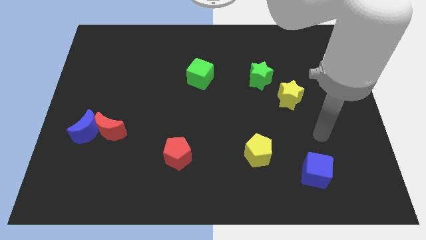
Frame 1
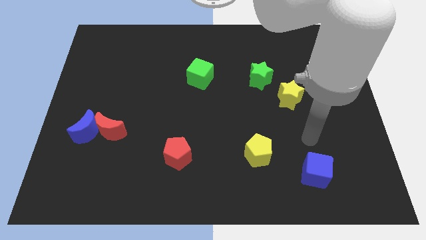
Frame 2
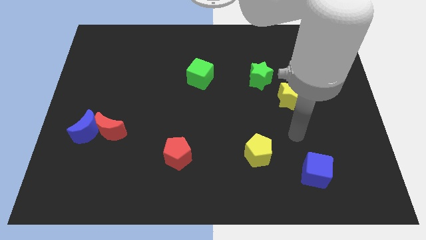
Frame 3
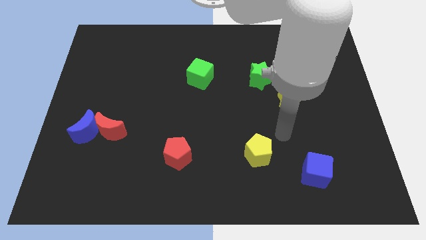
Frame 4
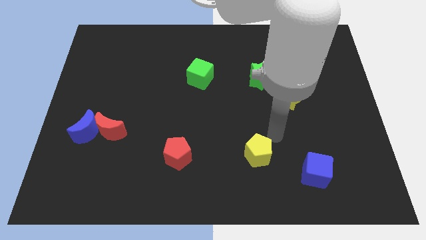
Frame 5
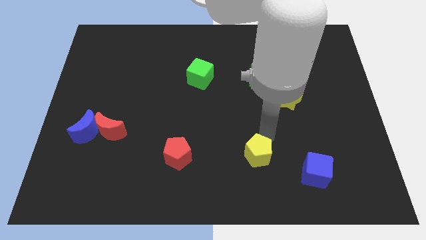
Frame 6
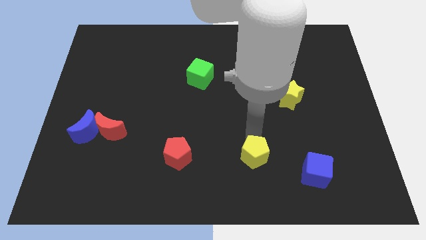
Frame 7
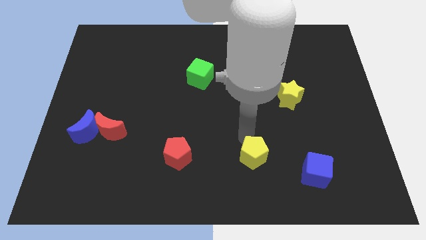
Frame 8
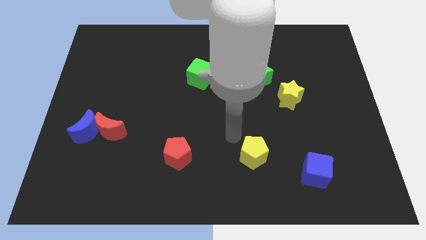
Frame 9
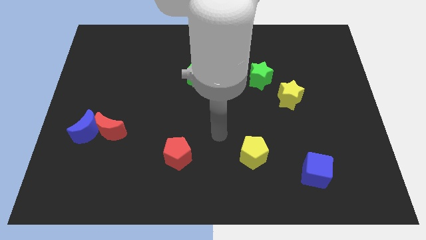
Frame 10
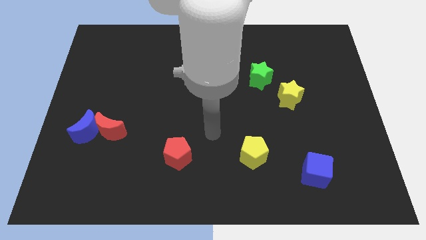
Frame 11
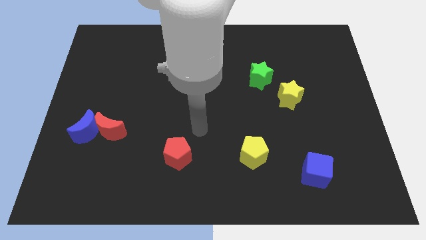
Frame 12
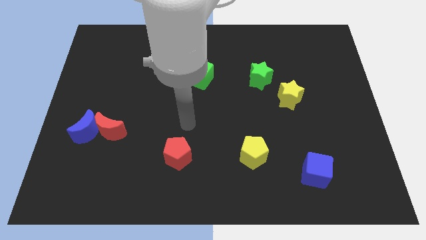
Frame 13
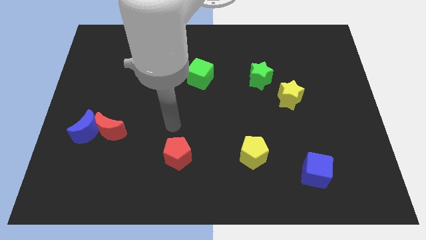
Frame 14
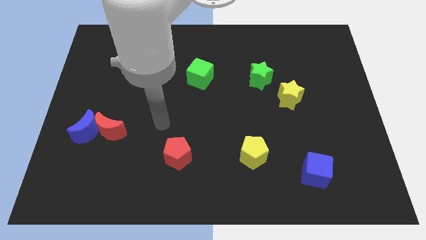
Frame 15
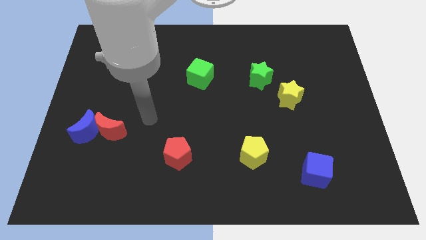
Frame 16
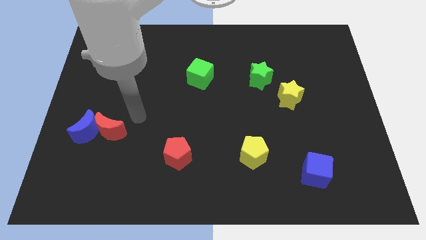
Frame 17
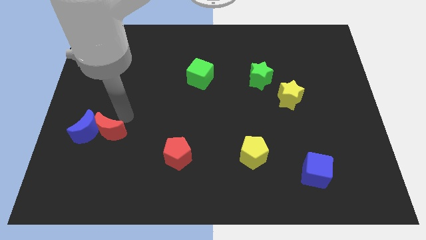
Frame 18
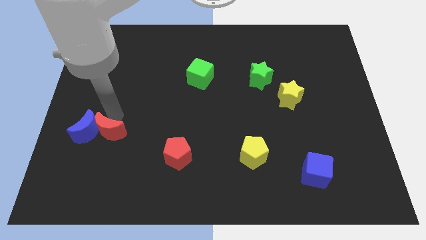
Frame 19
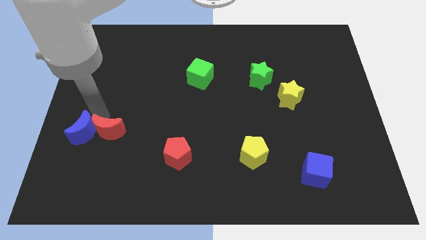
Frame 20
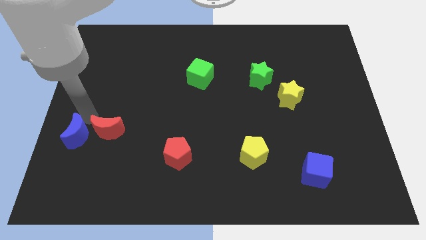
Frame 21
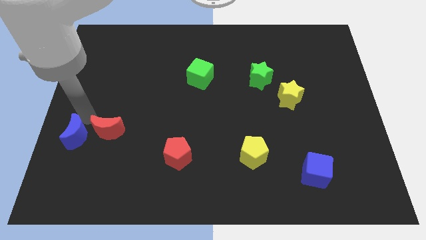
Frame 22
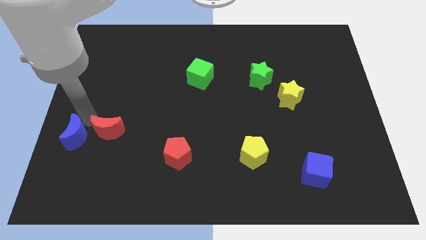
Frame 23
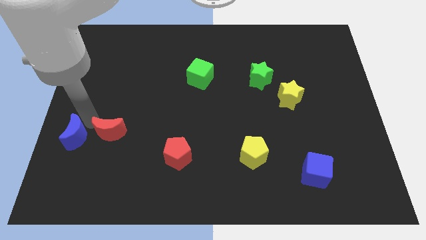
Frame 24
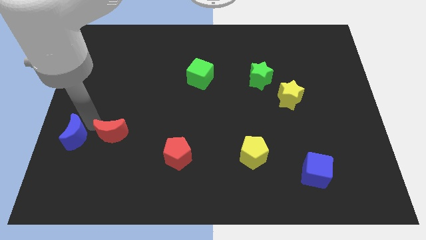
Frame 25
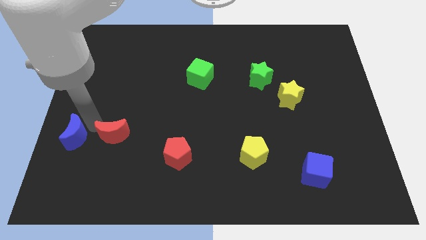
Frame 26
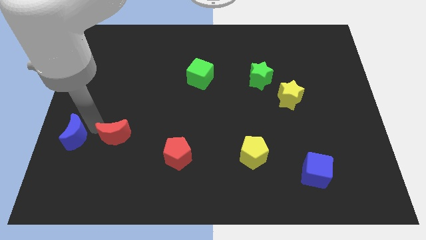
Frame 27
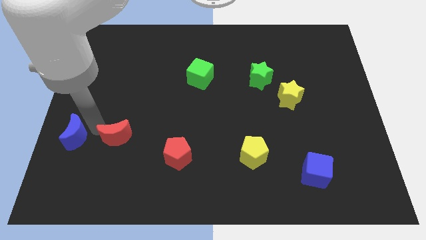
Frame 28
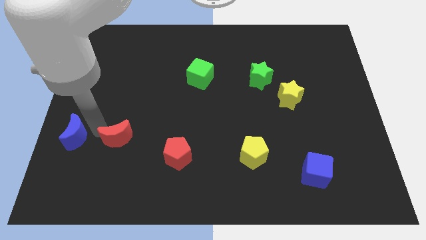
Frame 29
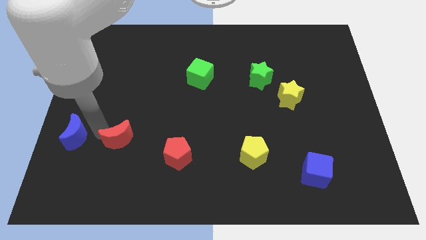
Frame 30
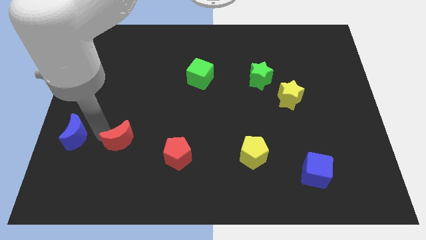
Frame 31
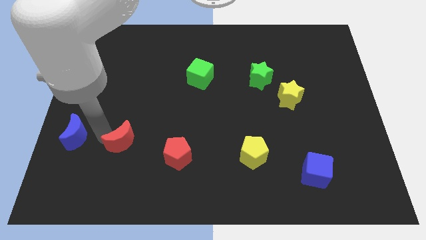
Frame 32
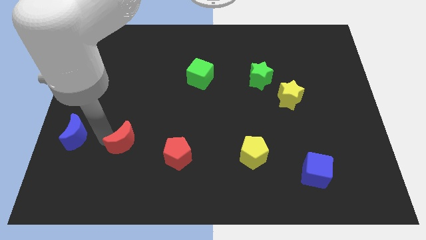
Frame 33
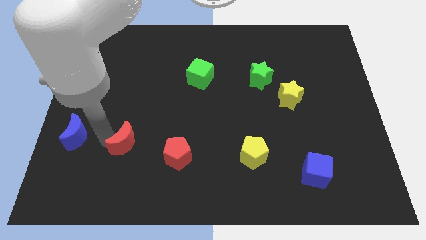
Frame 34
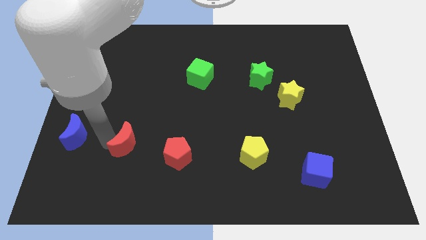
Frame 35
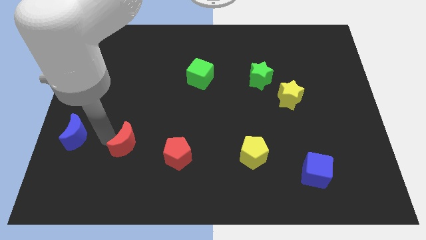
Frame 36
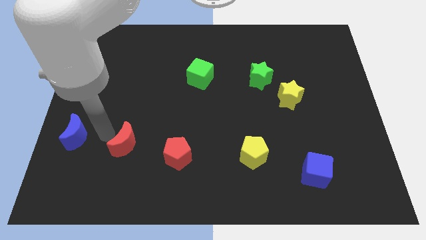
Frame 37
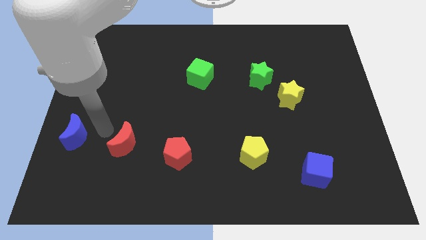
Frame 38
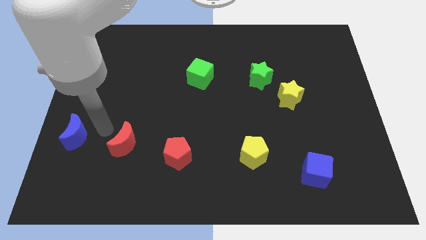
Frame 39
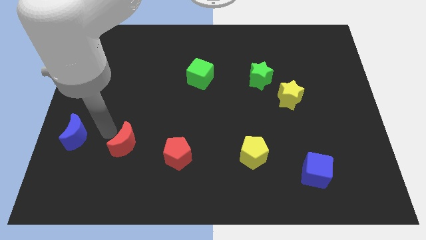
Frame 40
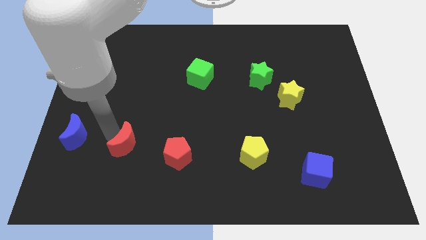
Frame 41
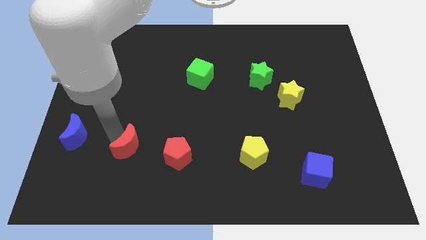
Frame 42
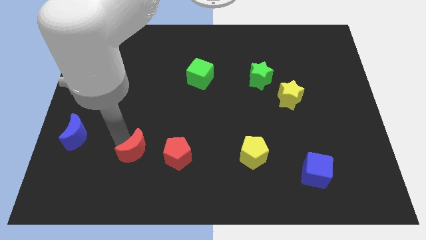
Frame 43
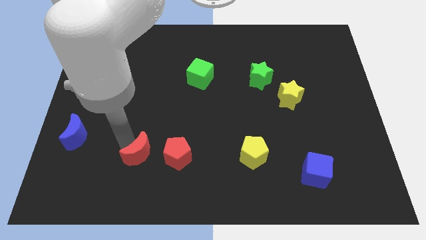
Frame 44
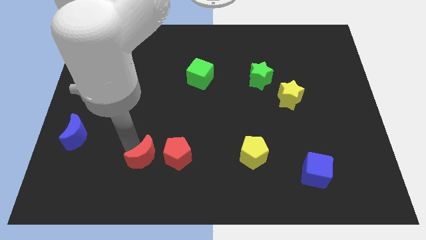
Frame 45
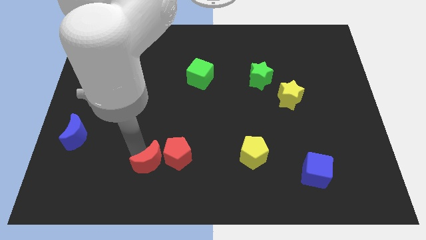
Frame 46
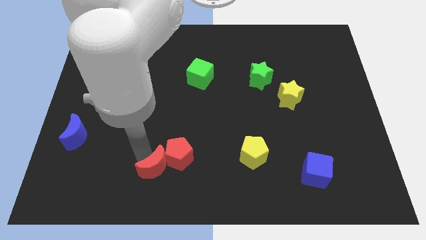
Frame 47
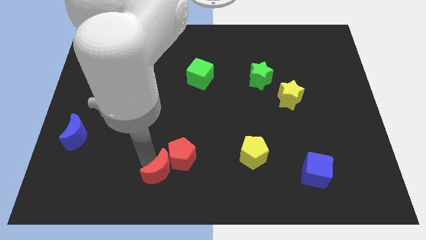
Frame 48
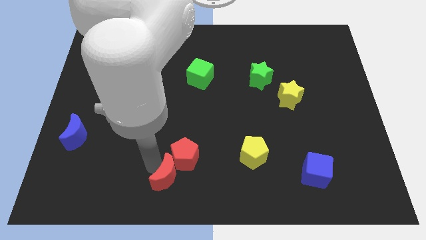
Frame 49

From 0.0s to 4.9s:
push the red moon to the bottom side

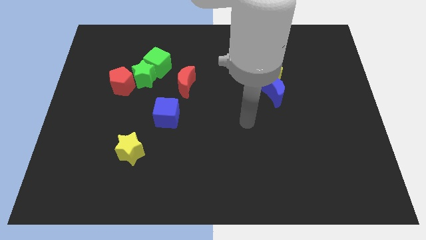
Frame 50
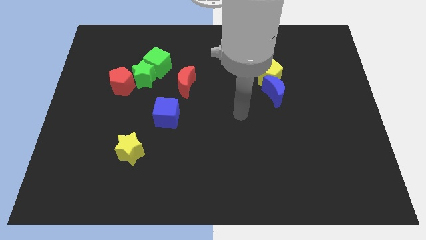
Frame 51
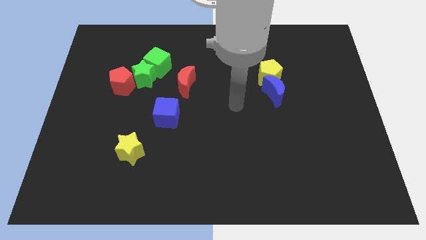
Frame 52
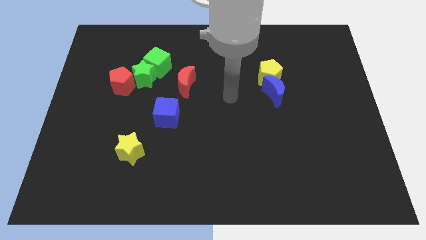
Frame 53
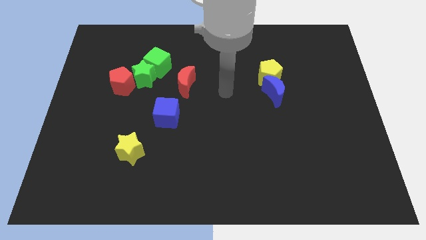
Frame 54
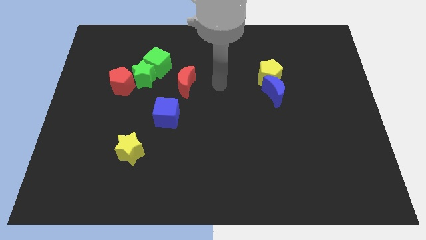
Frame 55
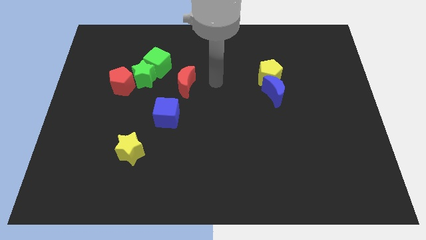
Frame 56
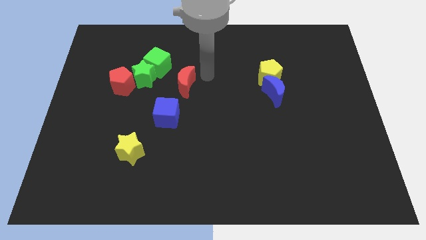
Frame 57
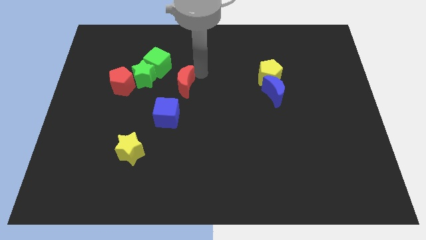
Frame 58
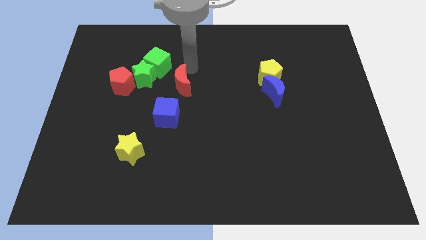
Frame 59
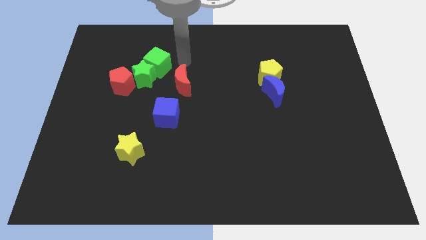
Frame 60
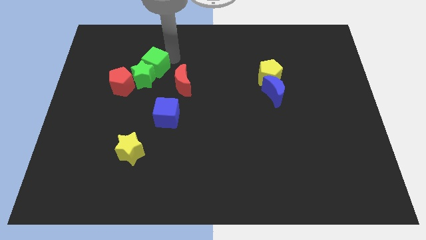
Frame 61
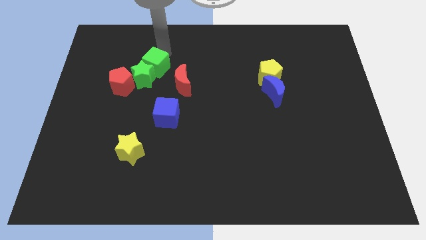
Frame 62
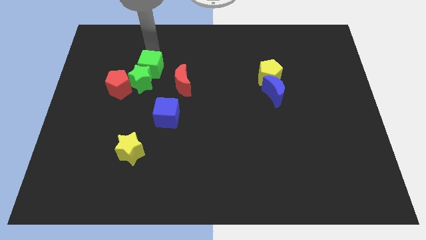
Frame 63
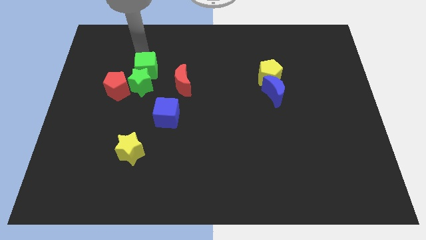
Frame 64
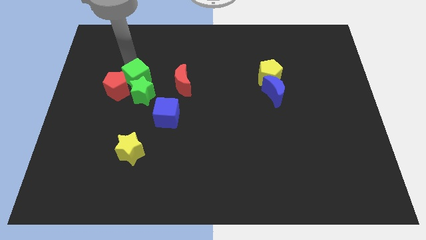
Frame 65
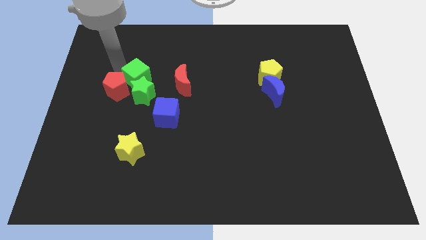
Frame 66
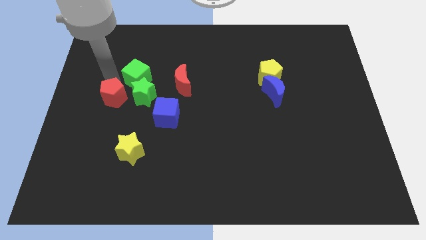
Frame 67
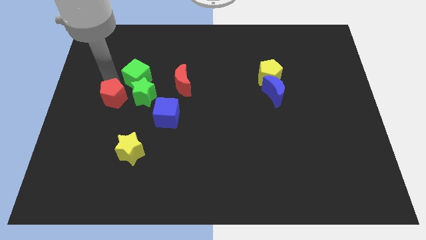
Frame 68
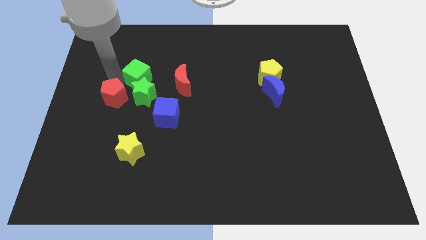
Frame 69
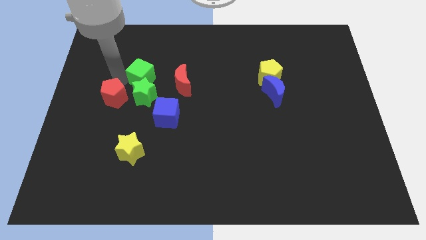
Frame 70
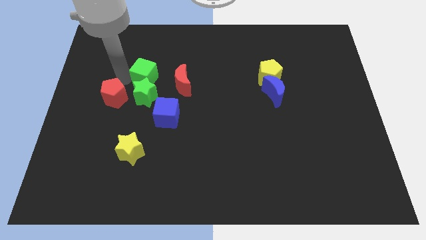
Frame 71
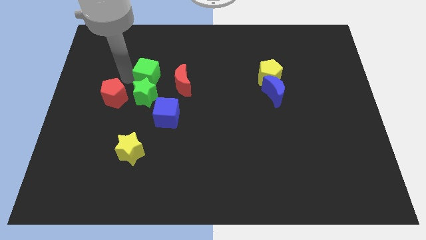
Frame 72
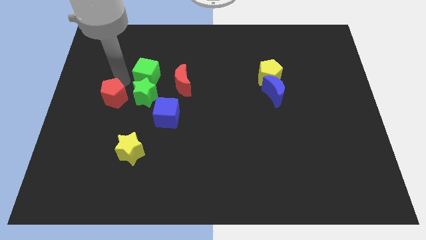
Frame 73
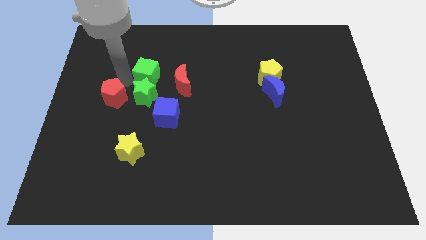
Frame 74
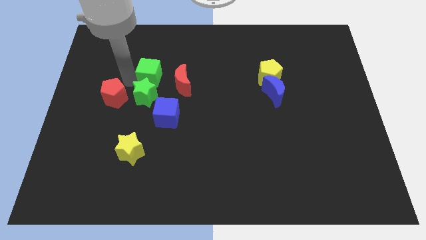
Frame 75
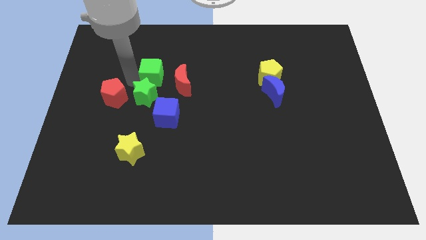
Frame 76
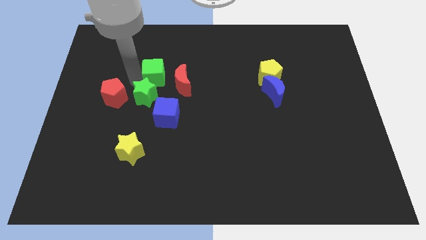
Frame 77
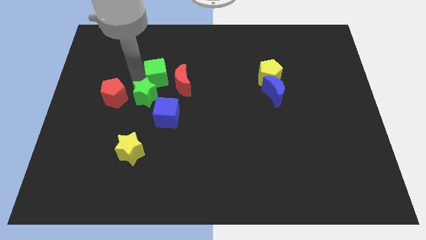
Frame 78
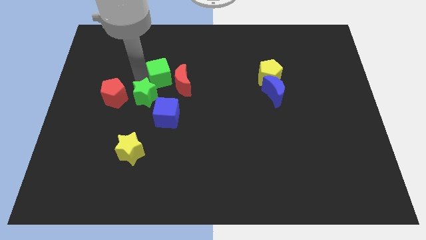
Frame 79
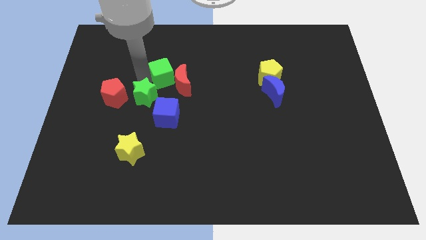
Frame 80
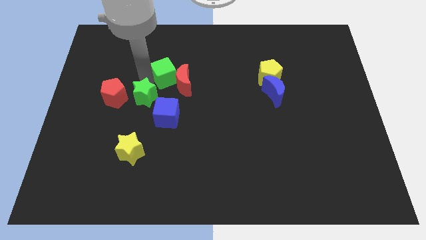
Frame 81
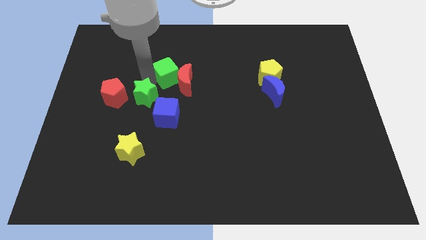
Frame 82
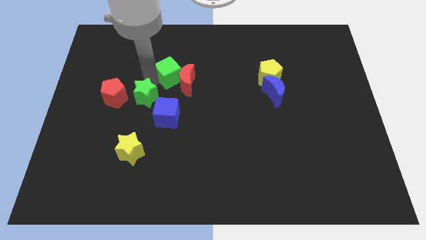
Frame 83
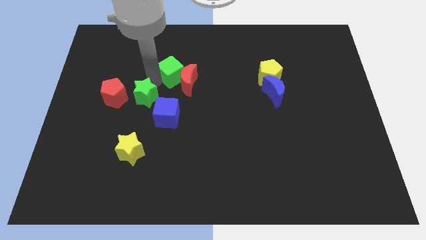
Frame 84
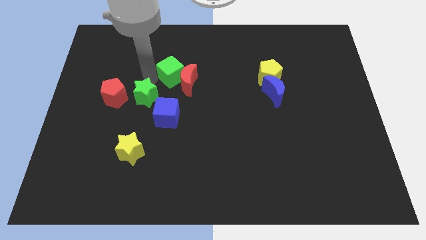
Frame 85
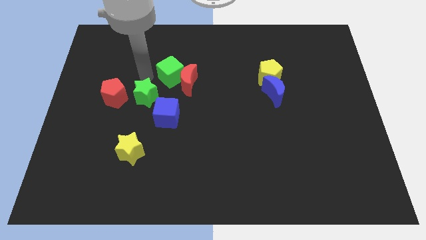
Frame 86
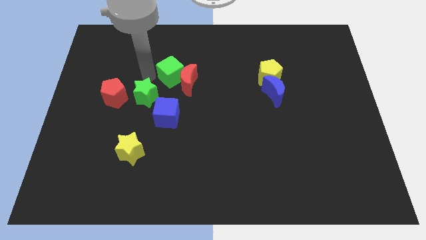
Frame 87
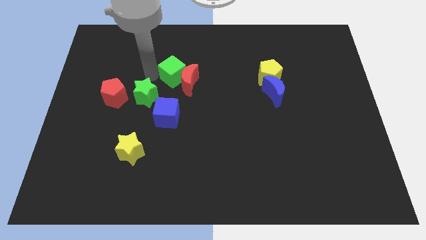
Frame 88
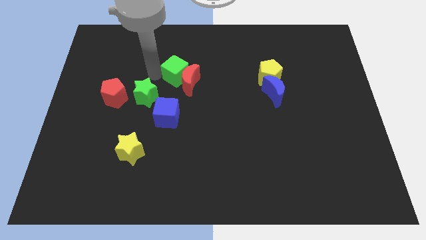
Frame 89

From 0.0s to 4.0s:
push the green cube to the center
